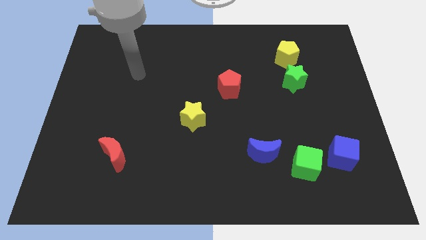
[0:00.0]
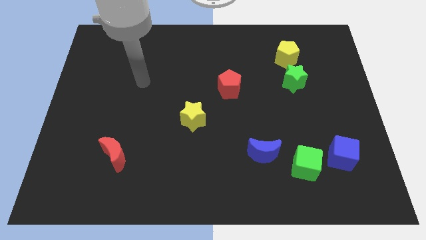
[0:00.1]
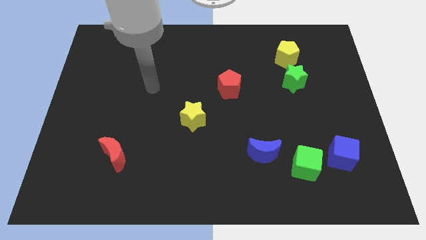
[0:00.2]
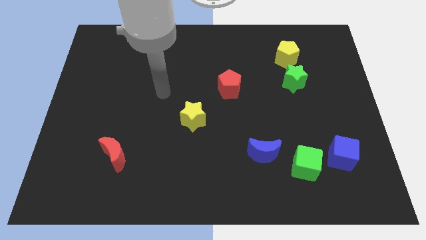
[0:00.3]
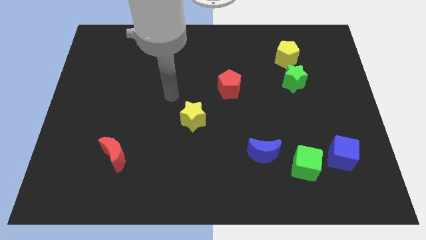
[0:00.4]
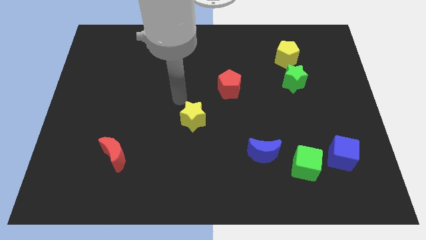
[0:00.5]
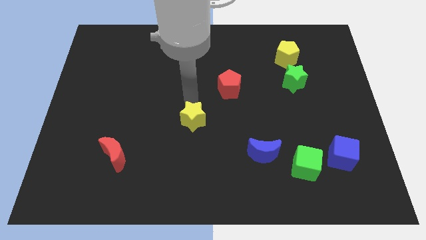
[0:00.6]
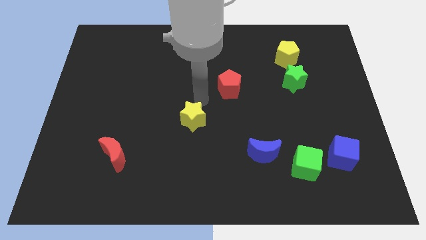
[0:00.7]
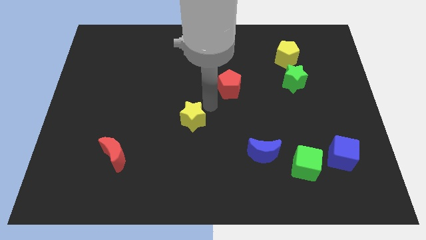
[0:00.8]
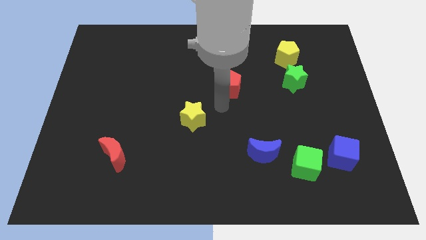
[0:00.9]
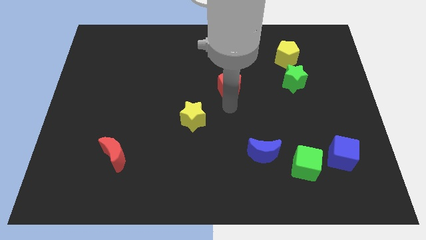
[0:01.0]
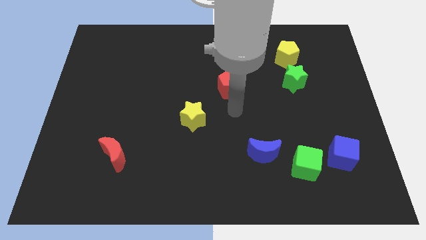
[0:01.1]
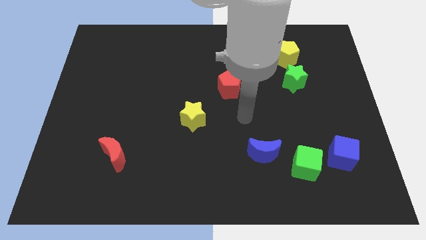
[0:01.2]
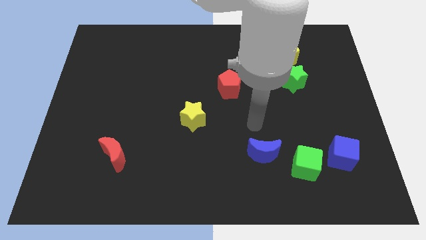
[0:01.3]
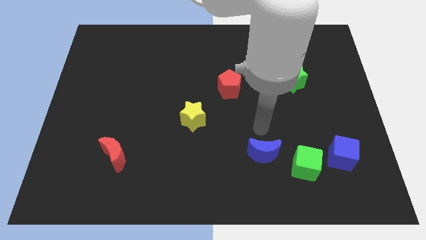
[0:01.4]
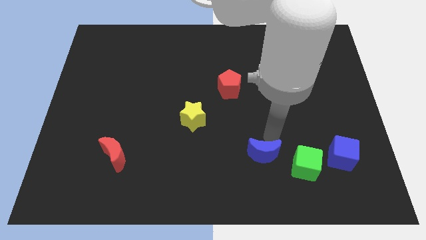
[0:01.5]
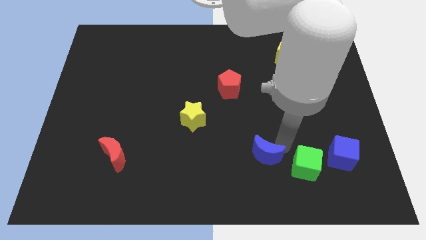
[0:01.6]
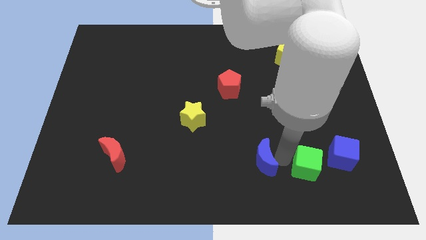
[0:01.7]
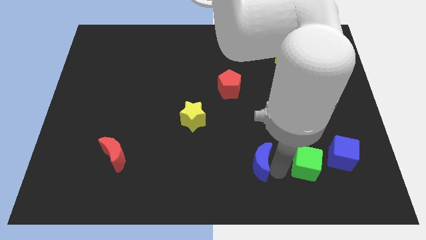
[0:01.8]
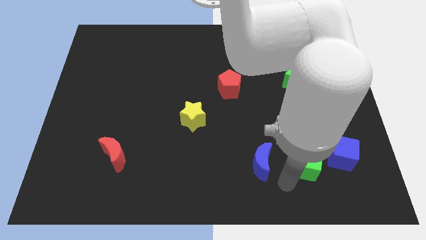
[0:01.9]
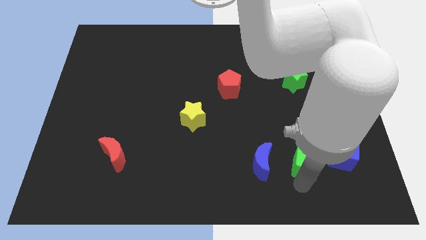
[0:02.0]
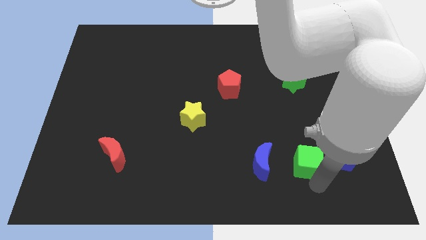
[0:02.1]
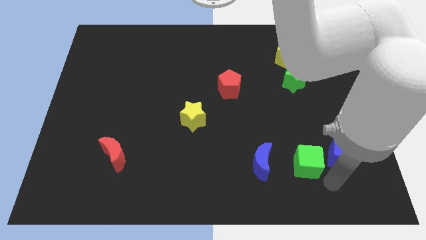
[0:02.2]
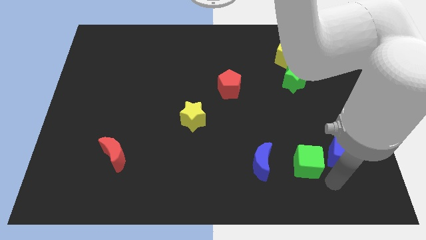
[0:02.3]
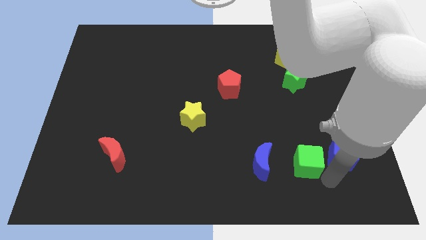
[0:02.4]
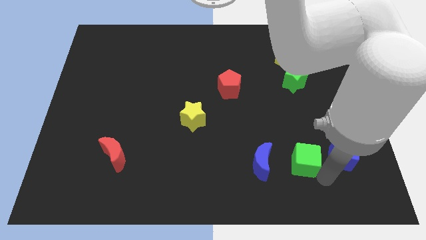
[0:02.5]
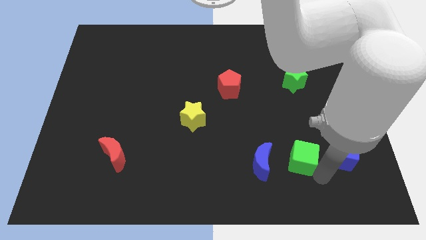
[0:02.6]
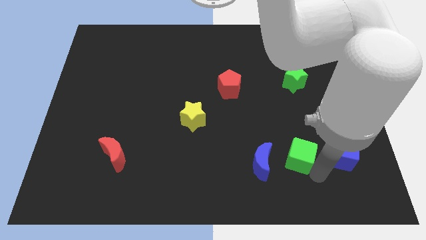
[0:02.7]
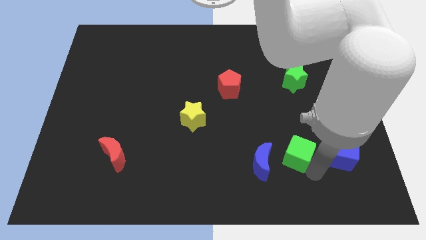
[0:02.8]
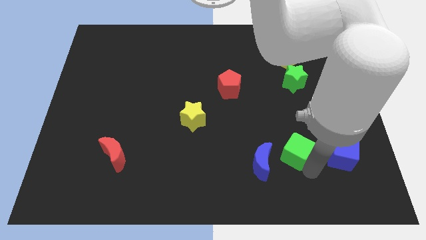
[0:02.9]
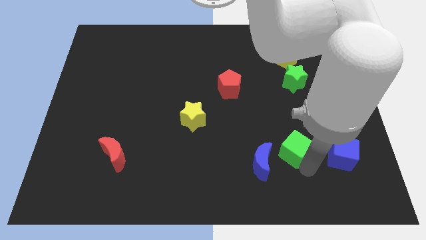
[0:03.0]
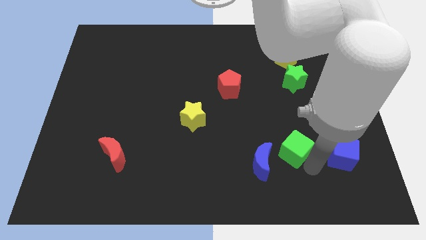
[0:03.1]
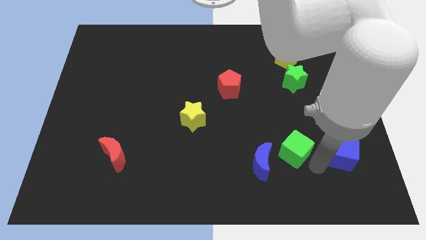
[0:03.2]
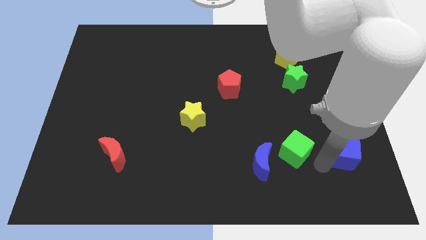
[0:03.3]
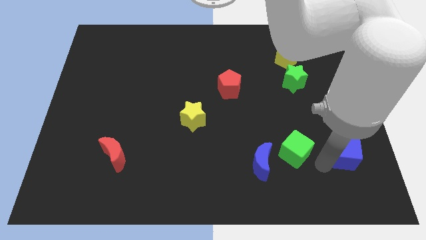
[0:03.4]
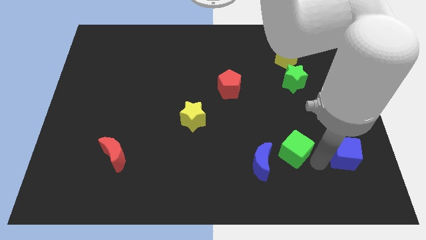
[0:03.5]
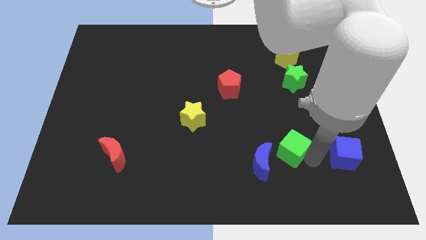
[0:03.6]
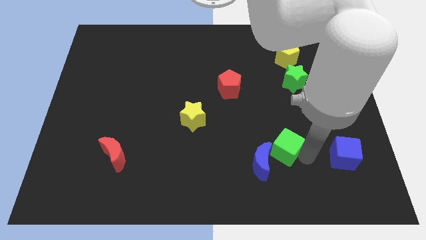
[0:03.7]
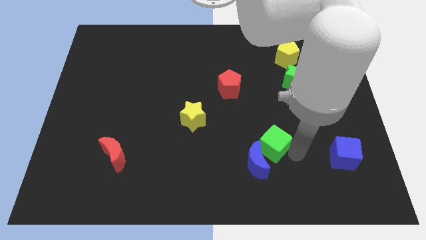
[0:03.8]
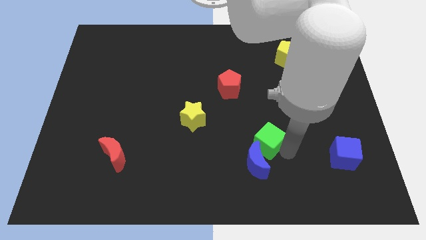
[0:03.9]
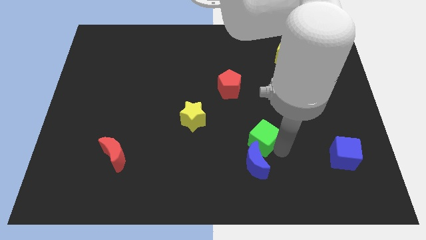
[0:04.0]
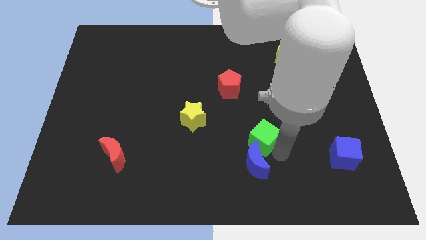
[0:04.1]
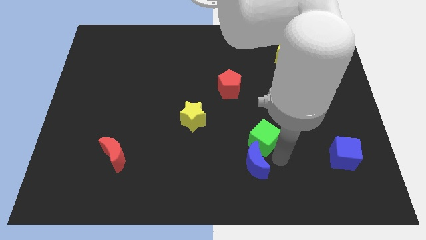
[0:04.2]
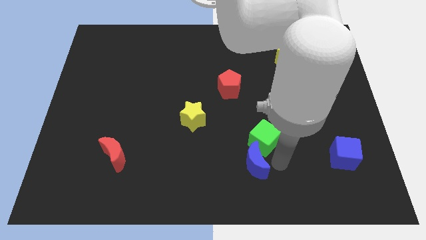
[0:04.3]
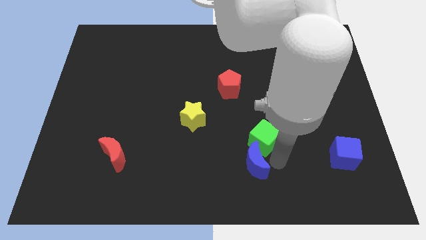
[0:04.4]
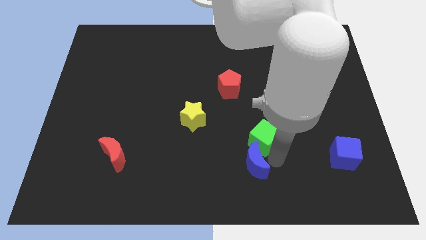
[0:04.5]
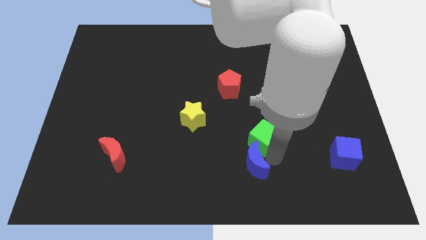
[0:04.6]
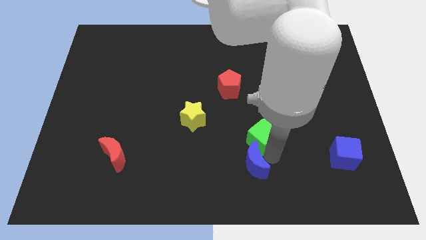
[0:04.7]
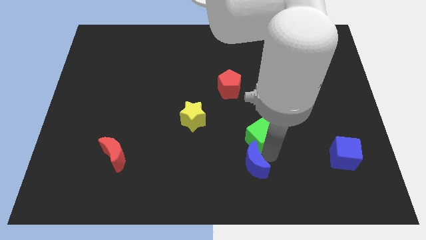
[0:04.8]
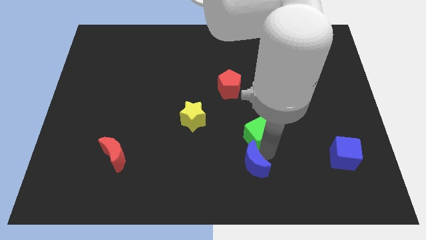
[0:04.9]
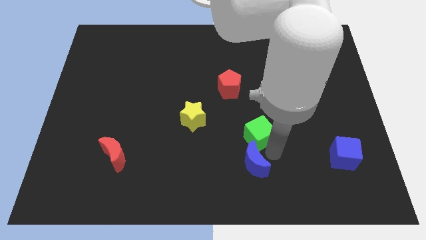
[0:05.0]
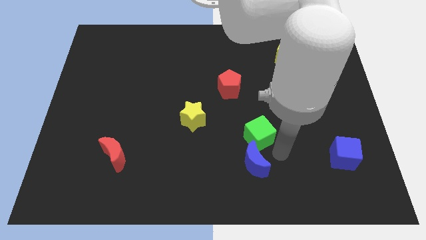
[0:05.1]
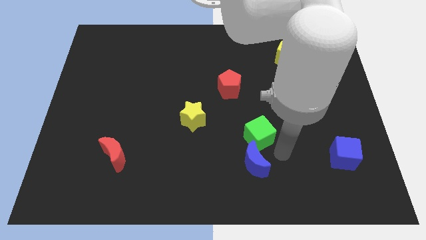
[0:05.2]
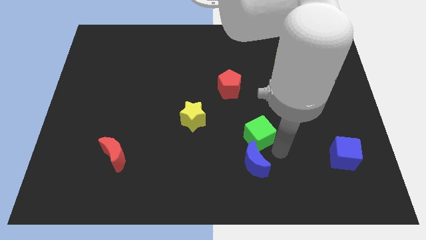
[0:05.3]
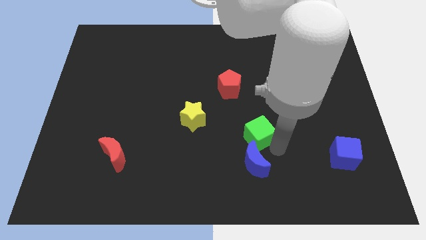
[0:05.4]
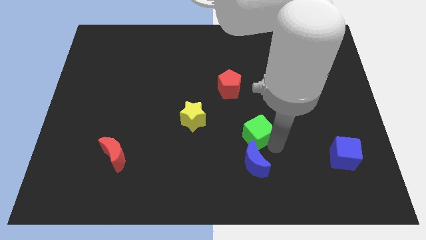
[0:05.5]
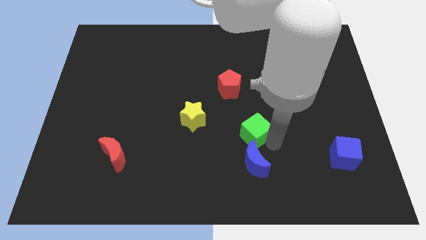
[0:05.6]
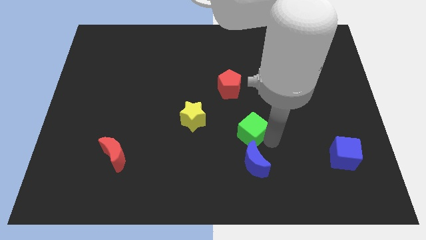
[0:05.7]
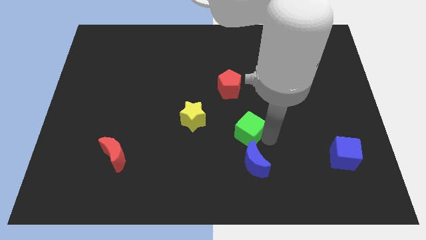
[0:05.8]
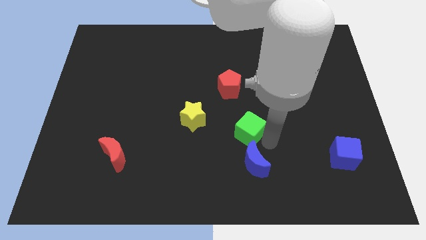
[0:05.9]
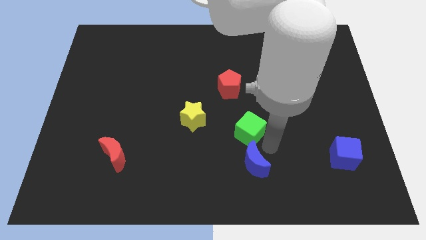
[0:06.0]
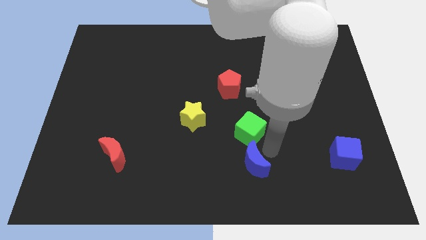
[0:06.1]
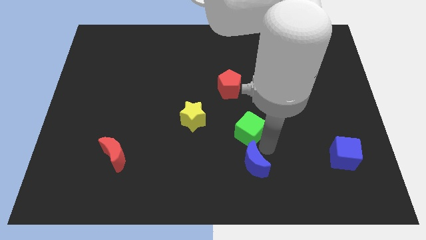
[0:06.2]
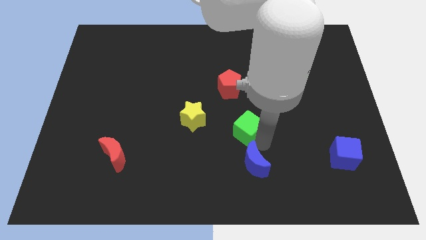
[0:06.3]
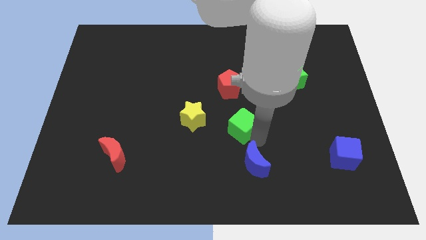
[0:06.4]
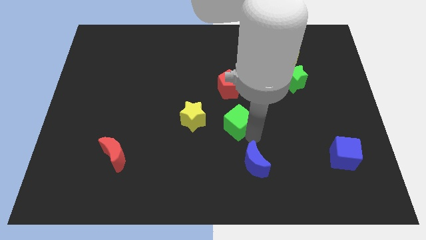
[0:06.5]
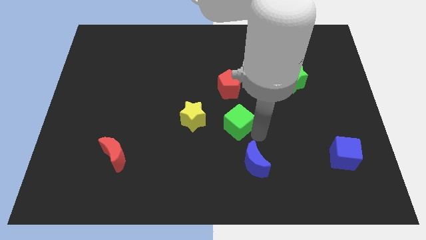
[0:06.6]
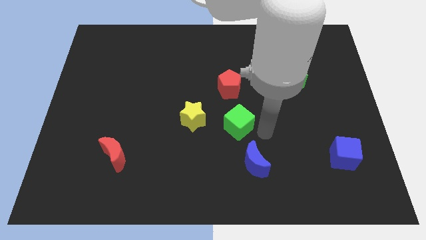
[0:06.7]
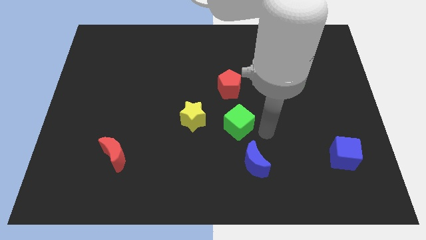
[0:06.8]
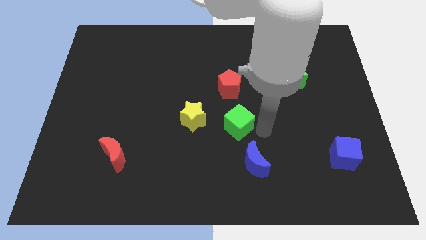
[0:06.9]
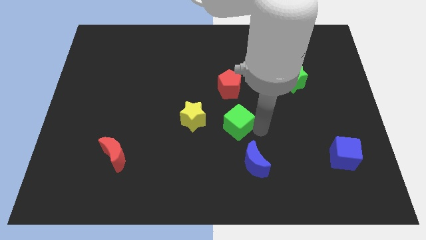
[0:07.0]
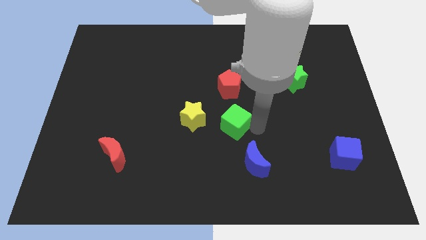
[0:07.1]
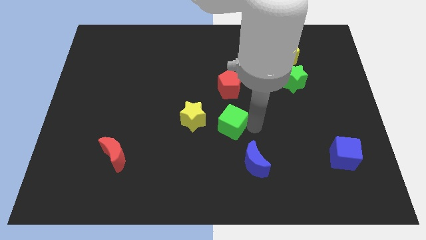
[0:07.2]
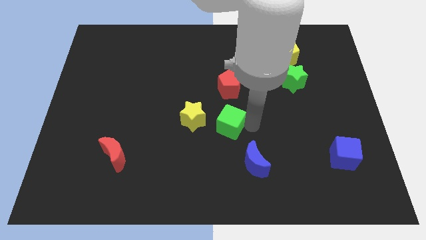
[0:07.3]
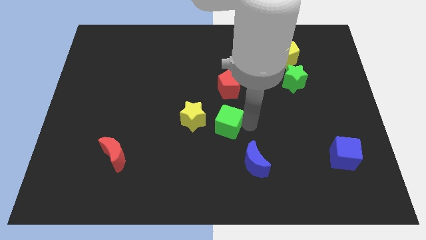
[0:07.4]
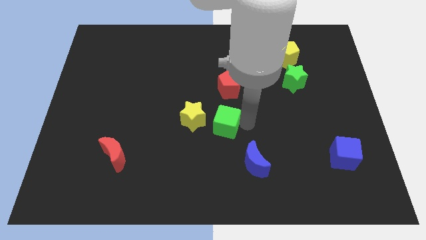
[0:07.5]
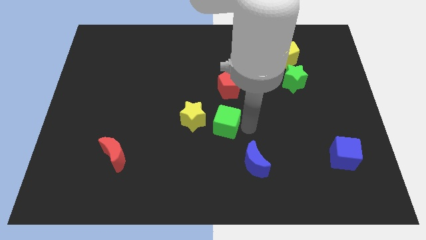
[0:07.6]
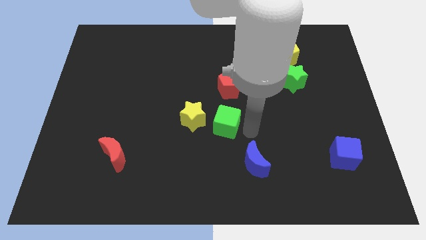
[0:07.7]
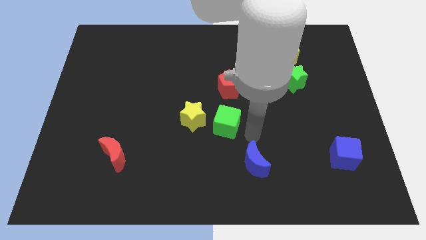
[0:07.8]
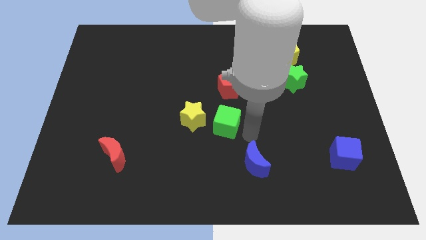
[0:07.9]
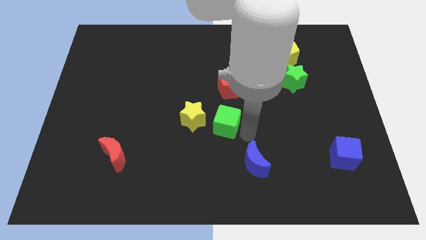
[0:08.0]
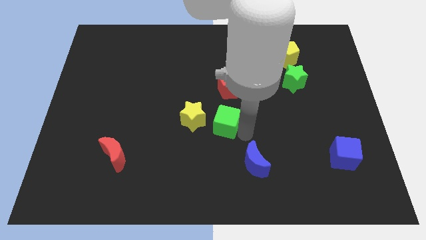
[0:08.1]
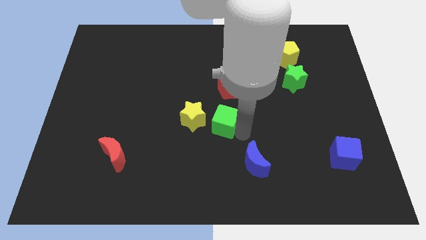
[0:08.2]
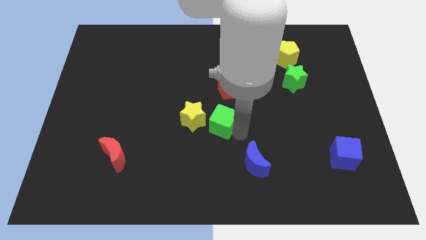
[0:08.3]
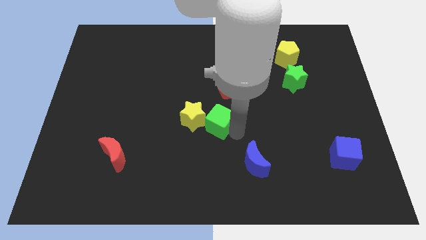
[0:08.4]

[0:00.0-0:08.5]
slide the green cube towards the yellow star
